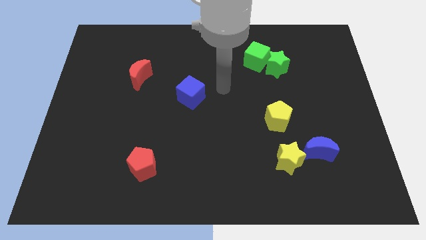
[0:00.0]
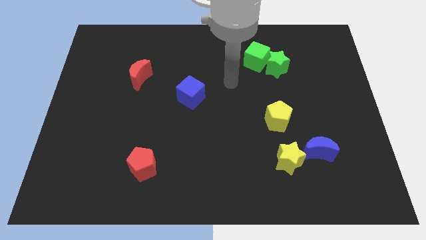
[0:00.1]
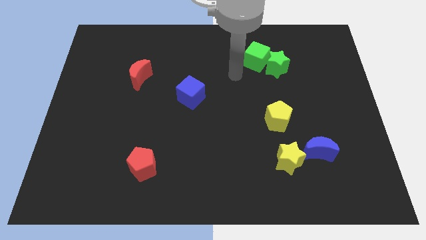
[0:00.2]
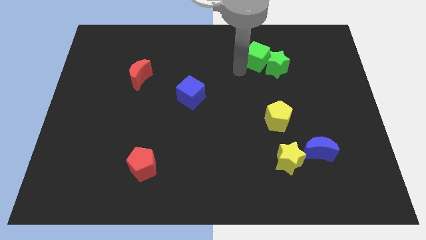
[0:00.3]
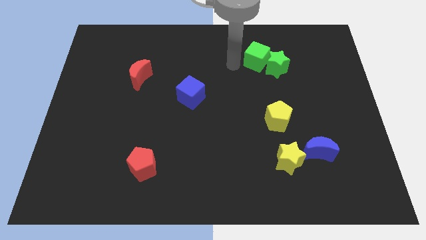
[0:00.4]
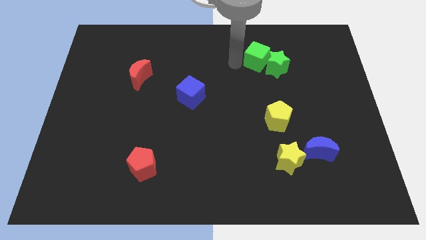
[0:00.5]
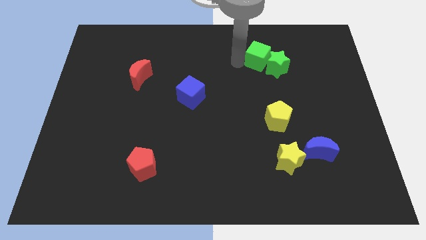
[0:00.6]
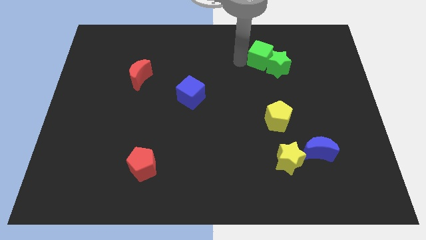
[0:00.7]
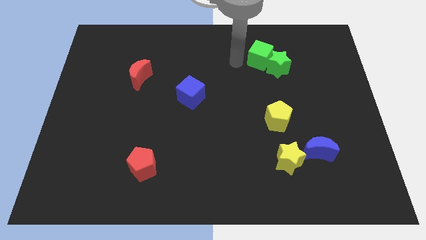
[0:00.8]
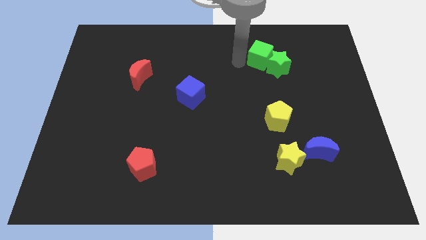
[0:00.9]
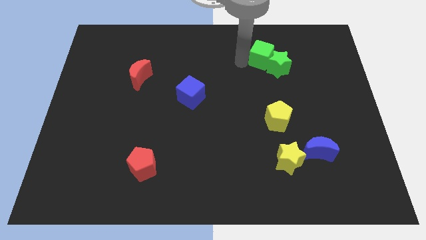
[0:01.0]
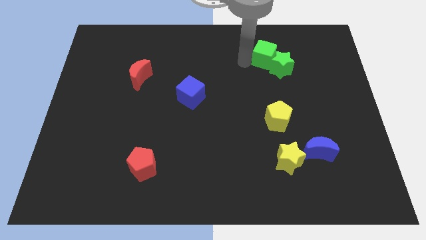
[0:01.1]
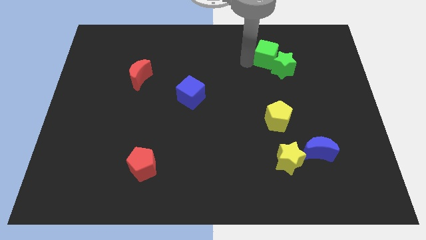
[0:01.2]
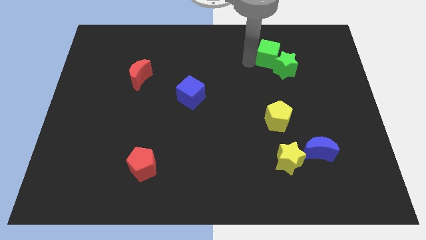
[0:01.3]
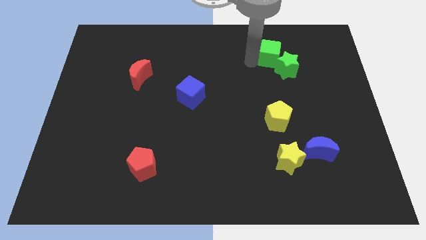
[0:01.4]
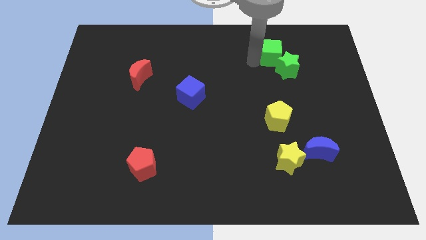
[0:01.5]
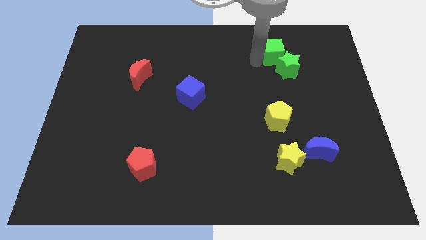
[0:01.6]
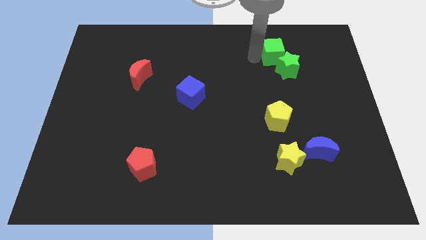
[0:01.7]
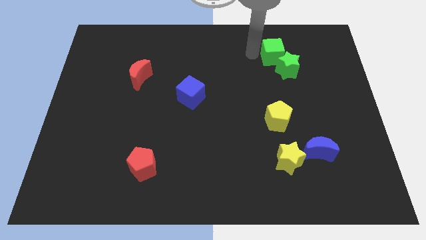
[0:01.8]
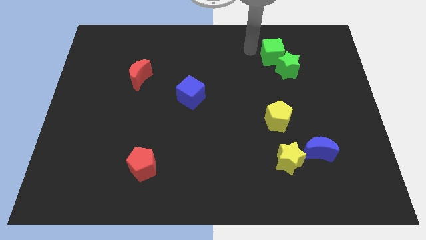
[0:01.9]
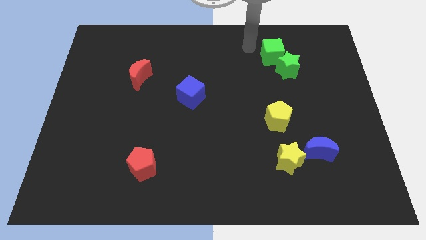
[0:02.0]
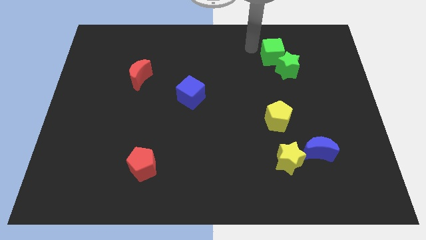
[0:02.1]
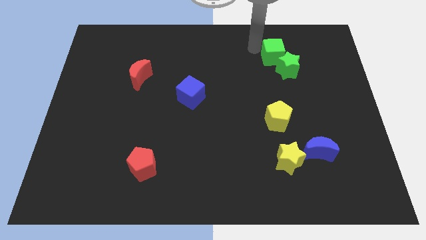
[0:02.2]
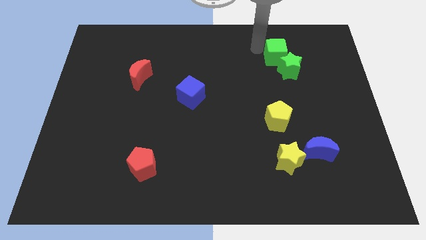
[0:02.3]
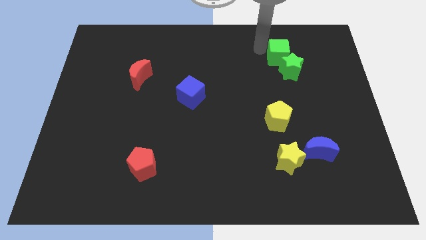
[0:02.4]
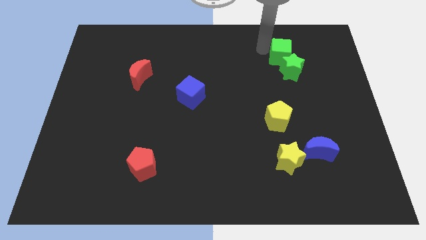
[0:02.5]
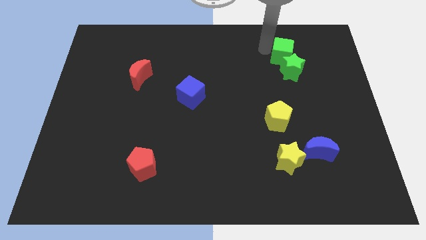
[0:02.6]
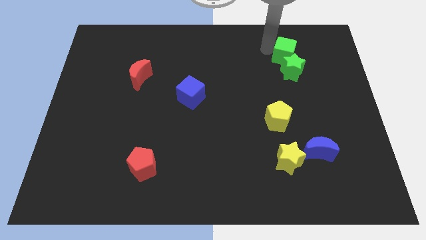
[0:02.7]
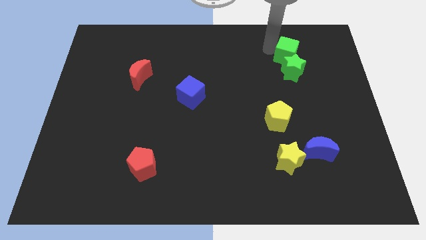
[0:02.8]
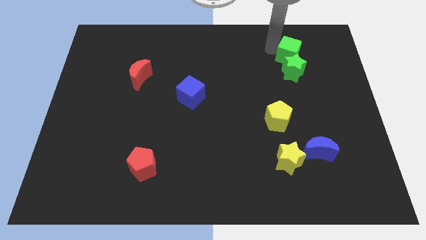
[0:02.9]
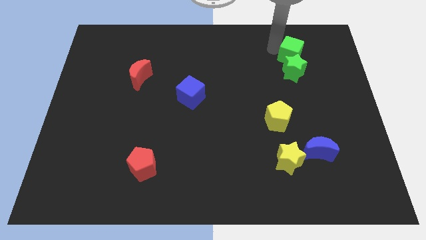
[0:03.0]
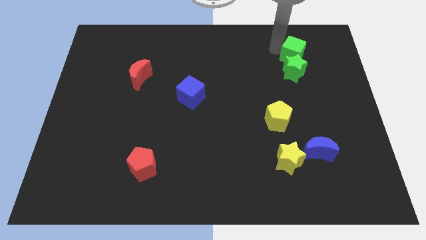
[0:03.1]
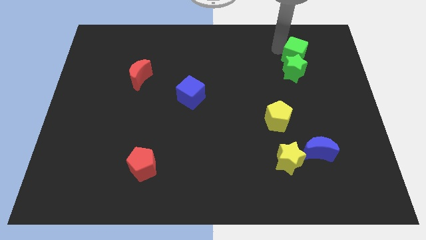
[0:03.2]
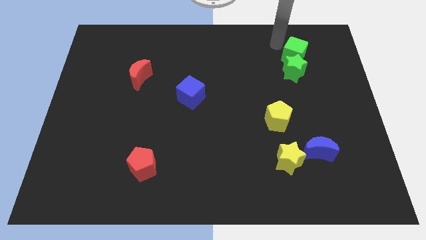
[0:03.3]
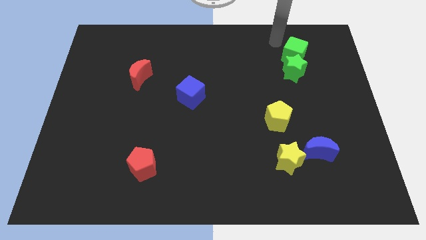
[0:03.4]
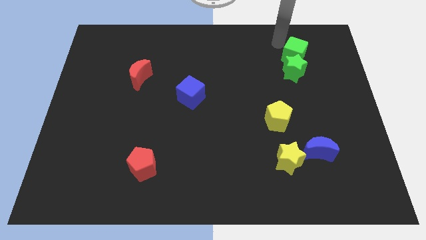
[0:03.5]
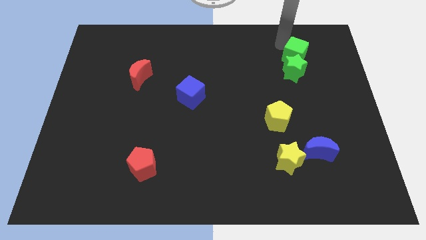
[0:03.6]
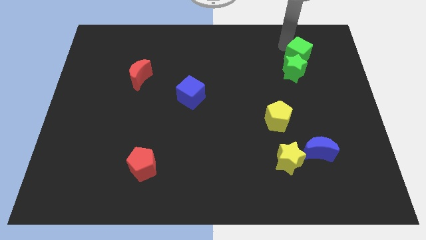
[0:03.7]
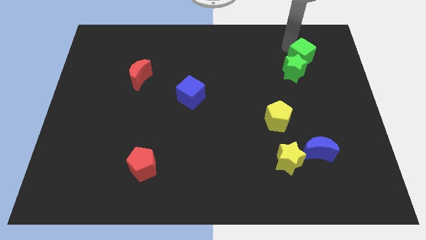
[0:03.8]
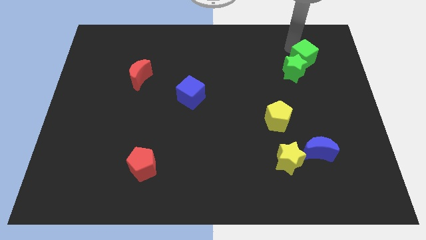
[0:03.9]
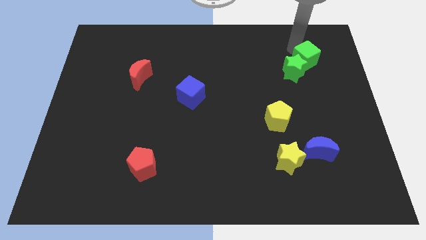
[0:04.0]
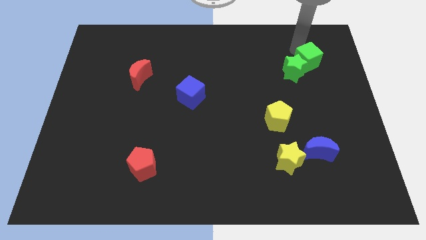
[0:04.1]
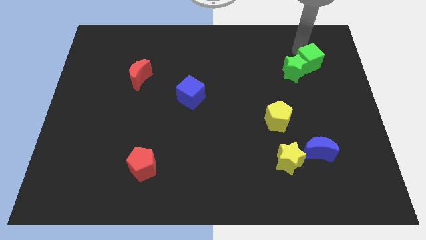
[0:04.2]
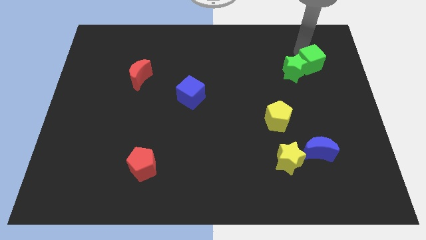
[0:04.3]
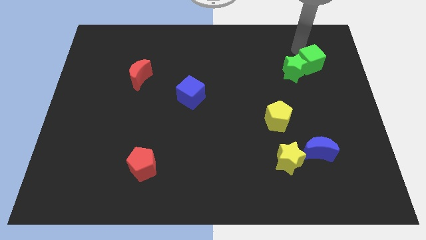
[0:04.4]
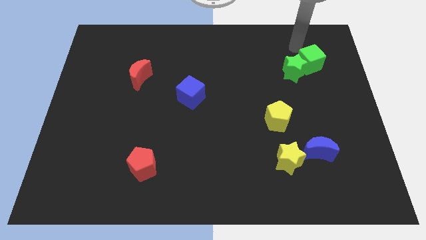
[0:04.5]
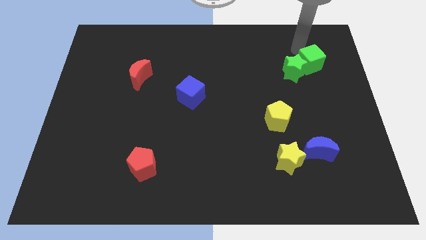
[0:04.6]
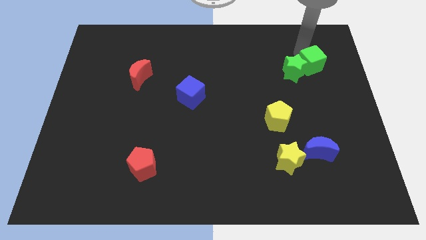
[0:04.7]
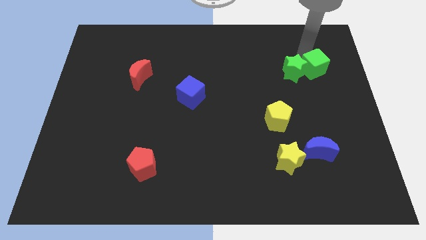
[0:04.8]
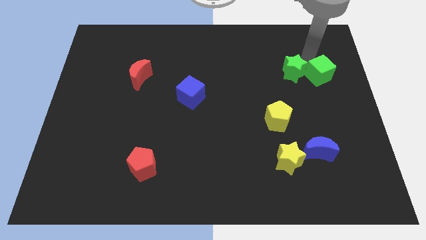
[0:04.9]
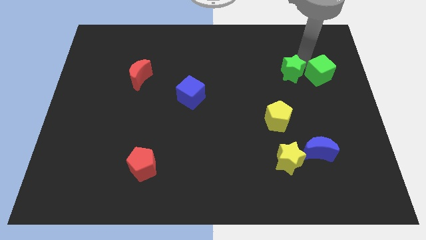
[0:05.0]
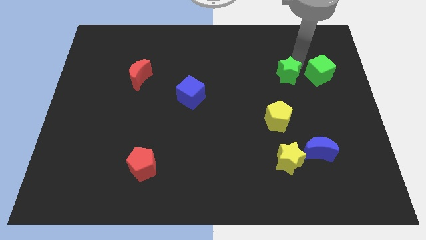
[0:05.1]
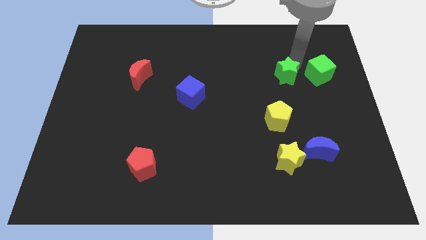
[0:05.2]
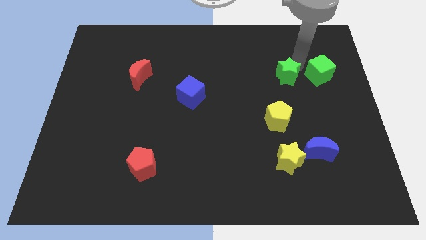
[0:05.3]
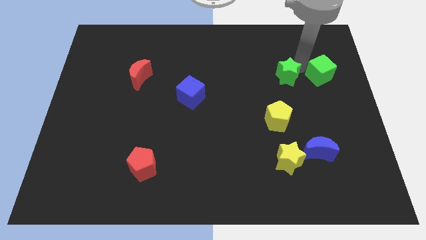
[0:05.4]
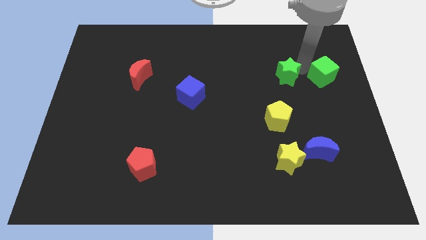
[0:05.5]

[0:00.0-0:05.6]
put the green cube to the center right

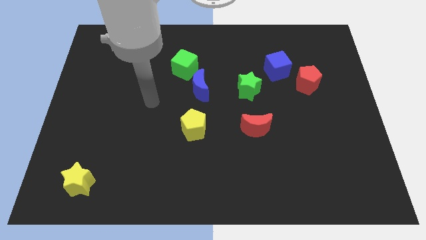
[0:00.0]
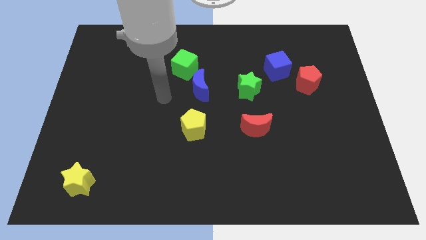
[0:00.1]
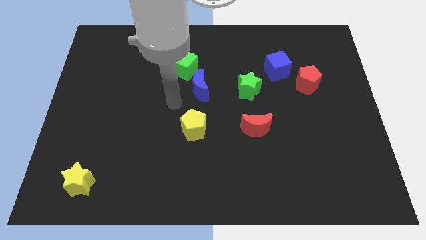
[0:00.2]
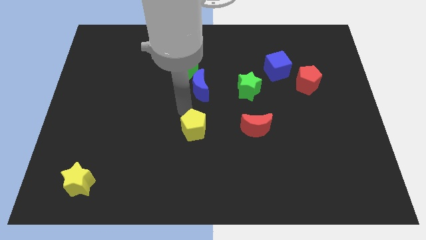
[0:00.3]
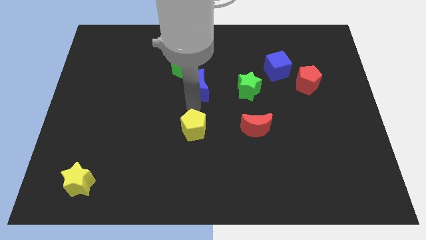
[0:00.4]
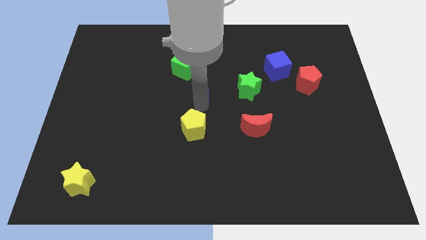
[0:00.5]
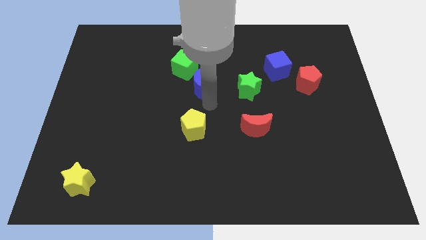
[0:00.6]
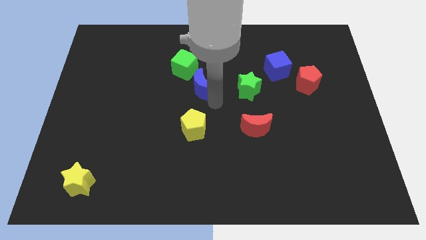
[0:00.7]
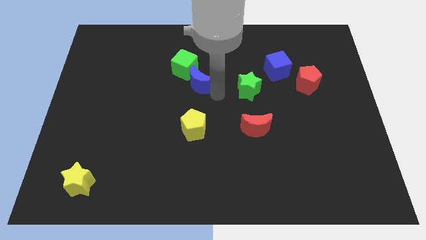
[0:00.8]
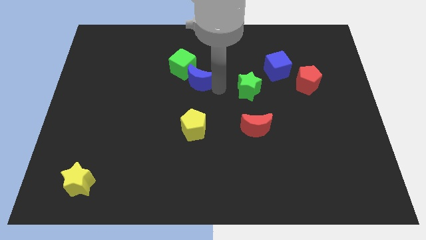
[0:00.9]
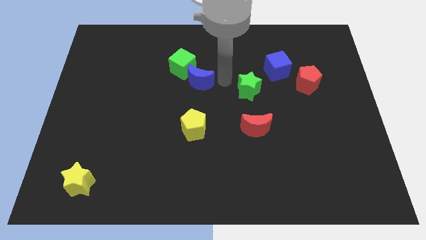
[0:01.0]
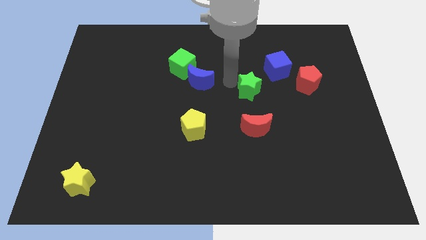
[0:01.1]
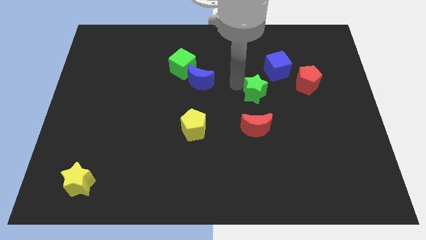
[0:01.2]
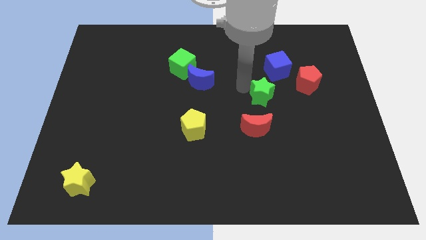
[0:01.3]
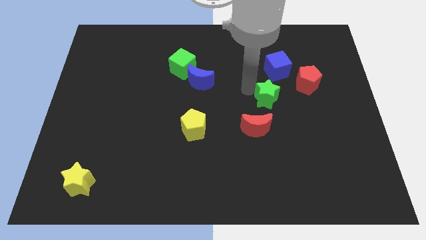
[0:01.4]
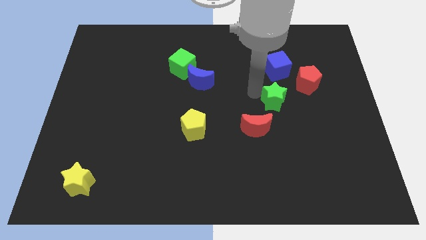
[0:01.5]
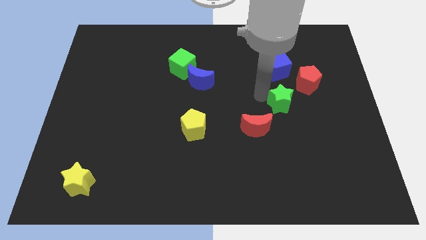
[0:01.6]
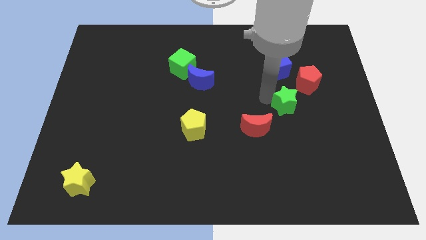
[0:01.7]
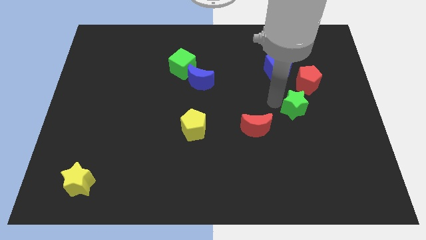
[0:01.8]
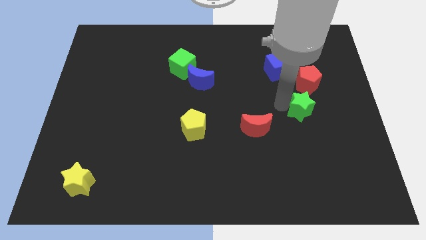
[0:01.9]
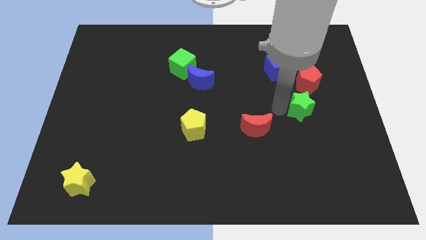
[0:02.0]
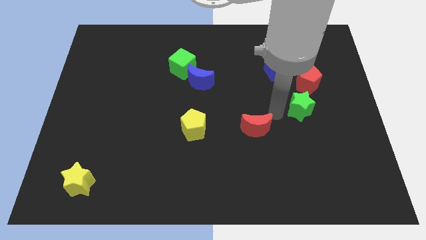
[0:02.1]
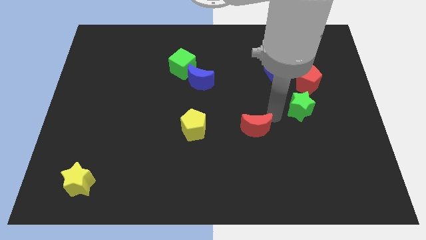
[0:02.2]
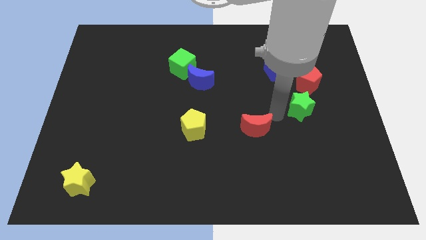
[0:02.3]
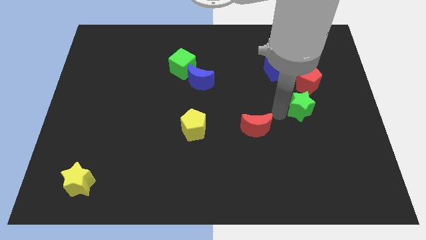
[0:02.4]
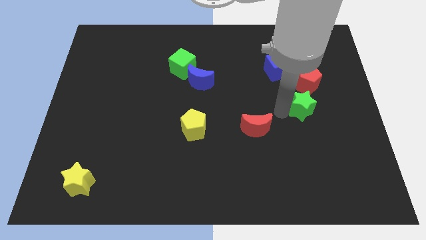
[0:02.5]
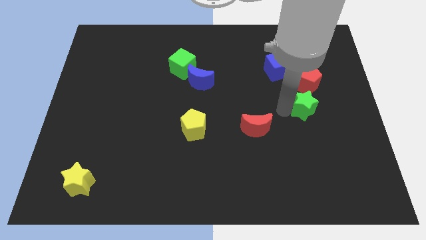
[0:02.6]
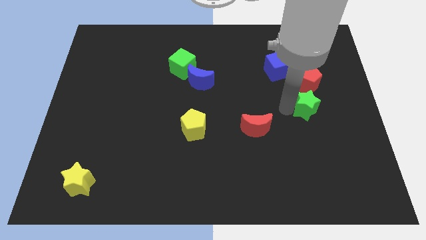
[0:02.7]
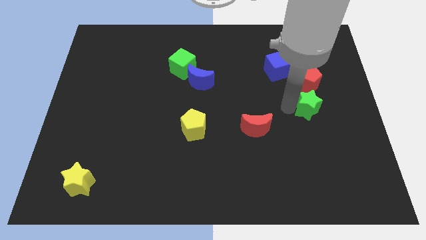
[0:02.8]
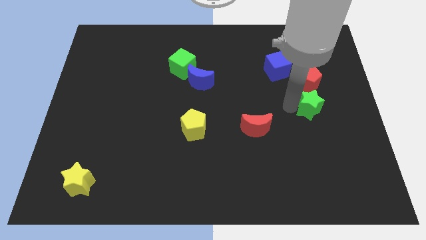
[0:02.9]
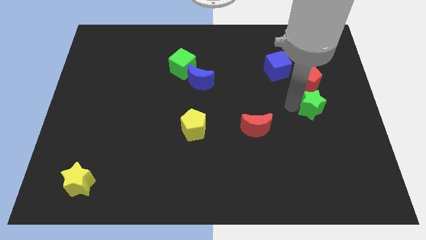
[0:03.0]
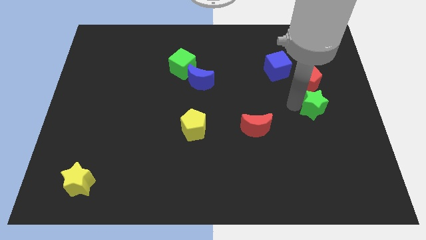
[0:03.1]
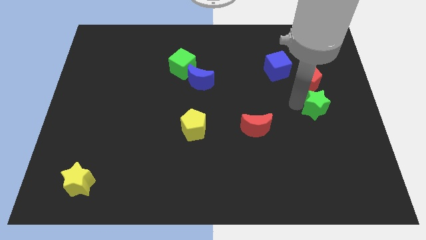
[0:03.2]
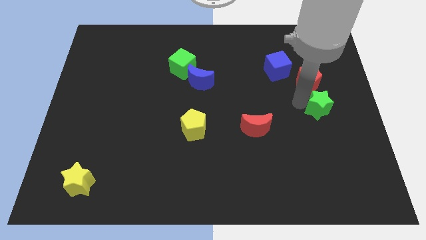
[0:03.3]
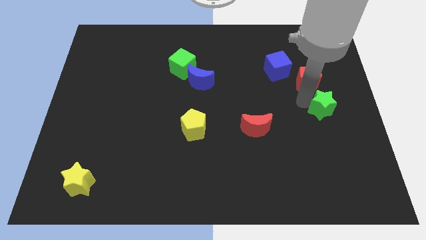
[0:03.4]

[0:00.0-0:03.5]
put the green star to the right side
